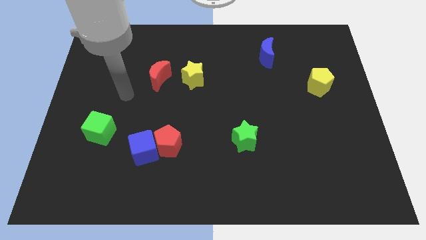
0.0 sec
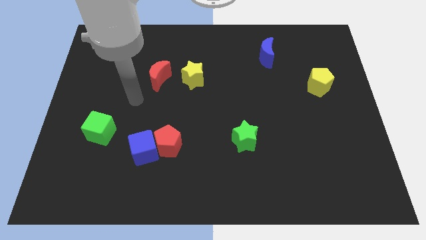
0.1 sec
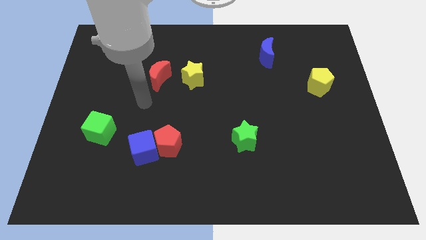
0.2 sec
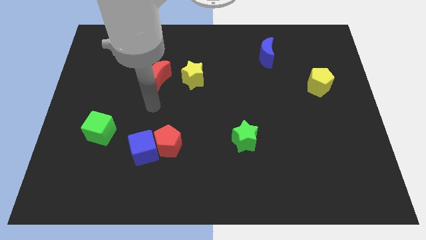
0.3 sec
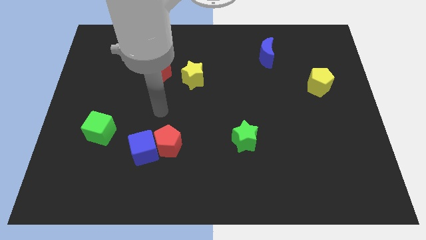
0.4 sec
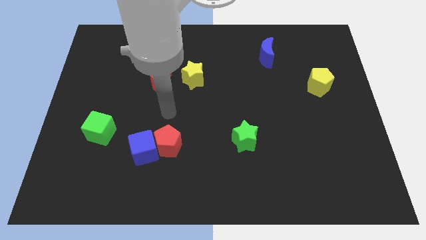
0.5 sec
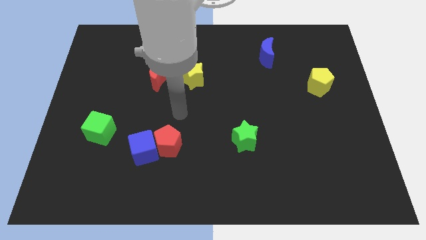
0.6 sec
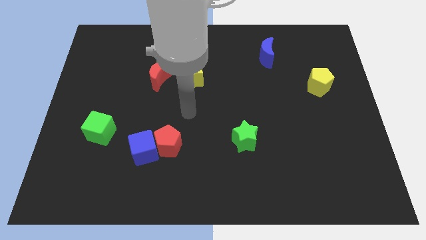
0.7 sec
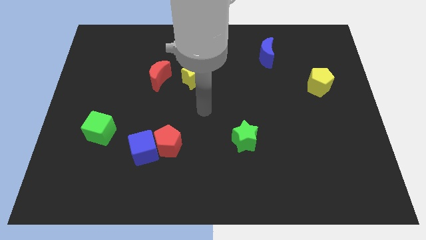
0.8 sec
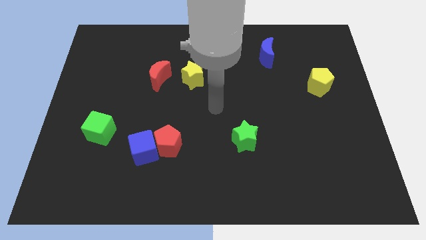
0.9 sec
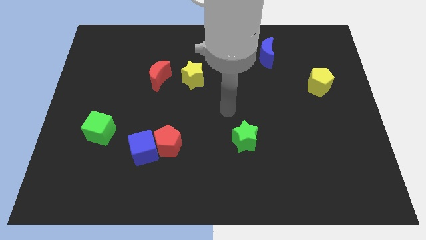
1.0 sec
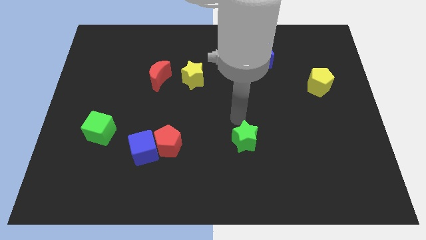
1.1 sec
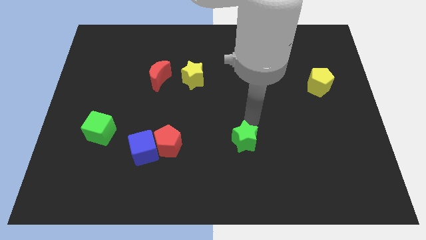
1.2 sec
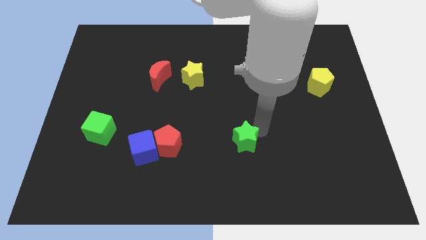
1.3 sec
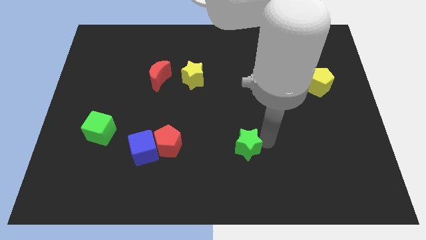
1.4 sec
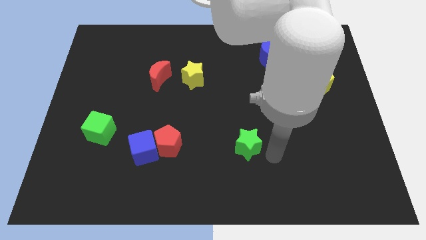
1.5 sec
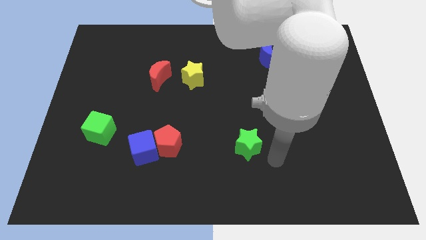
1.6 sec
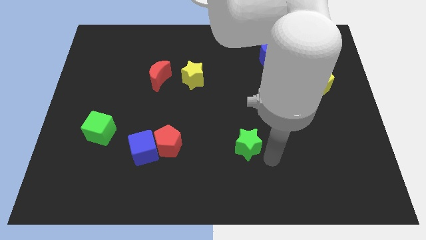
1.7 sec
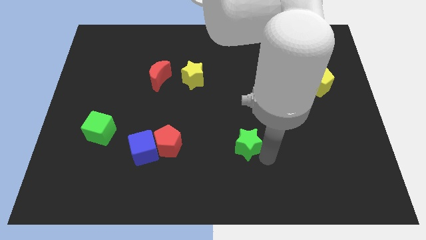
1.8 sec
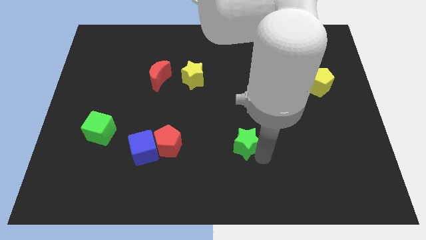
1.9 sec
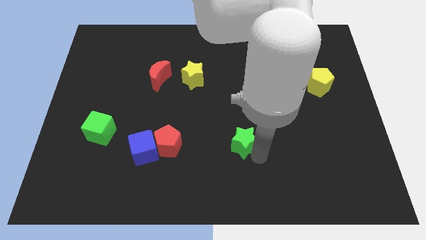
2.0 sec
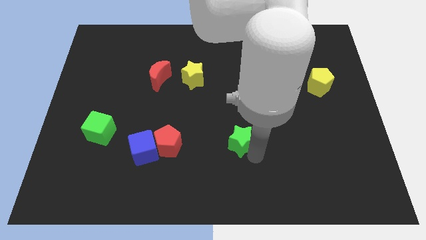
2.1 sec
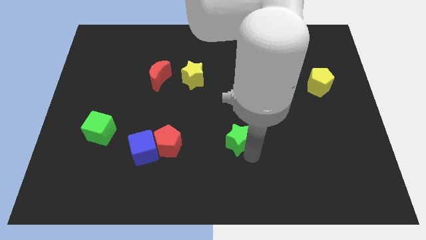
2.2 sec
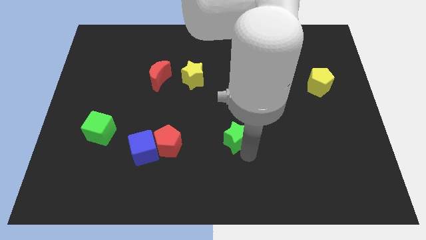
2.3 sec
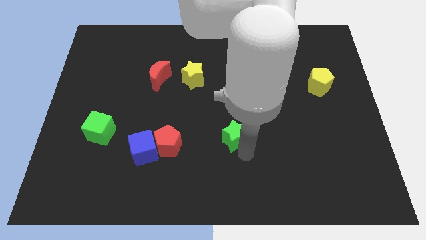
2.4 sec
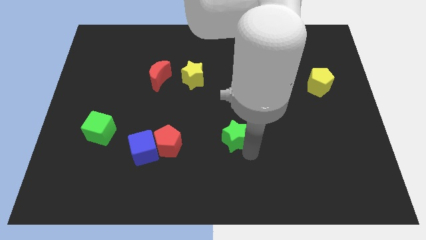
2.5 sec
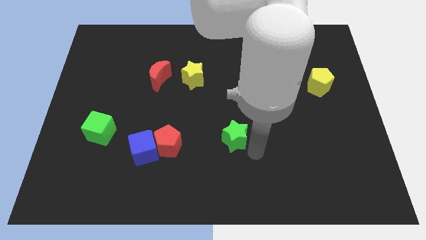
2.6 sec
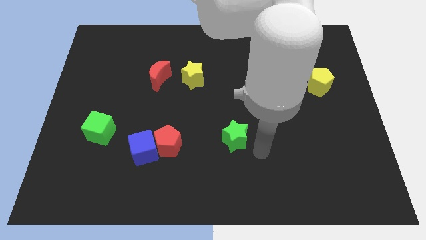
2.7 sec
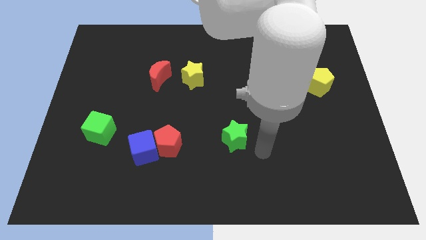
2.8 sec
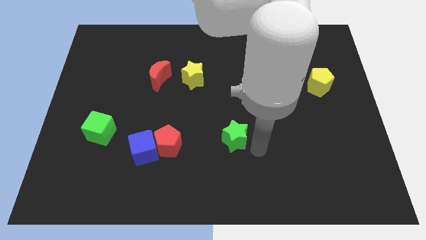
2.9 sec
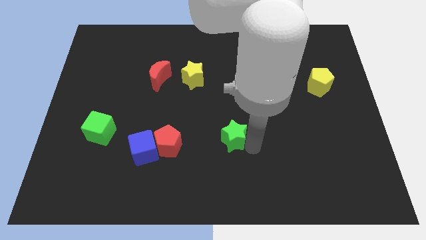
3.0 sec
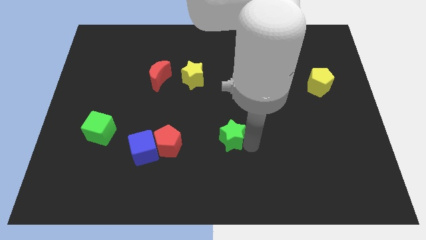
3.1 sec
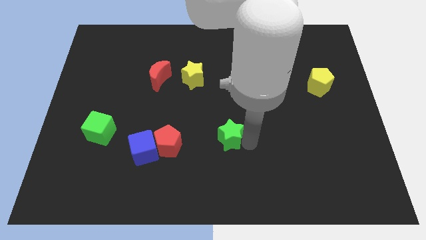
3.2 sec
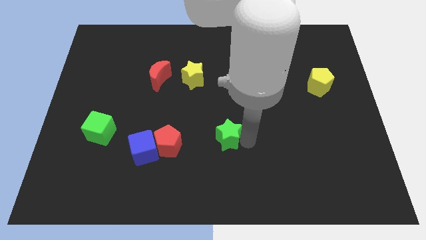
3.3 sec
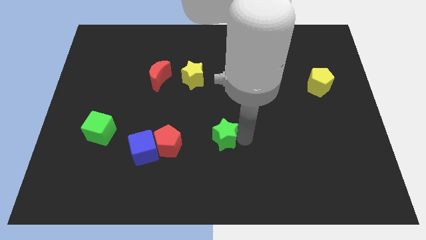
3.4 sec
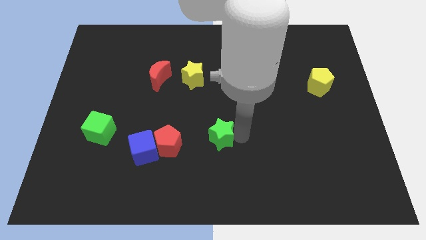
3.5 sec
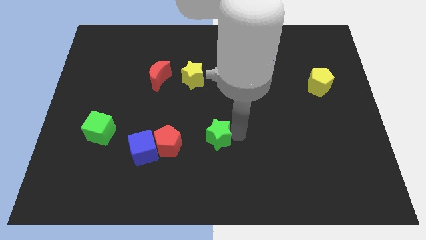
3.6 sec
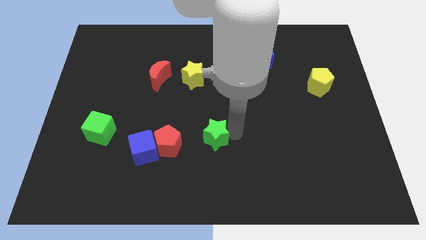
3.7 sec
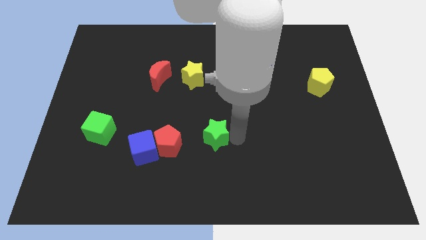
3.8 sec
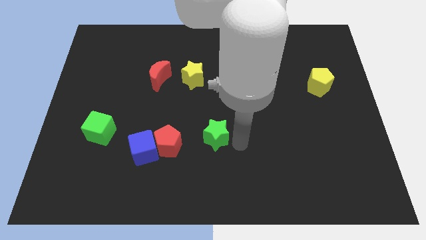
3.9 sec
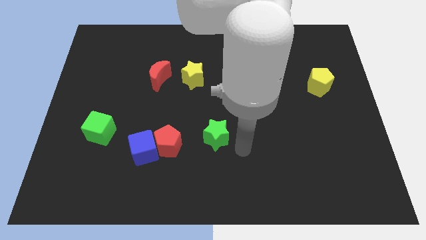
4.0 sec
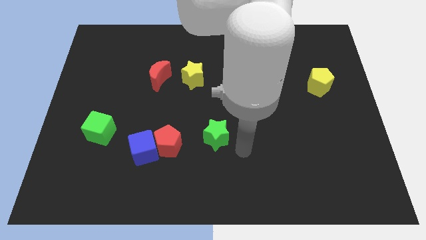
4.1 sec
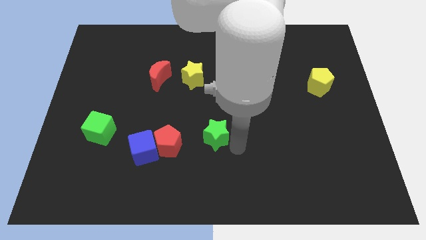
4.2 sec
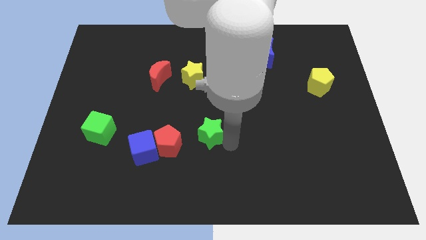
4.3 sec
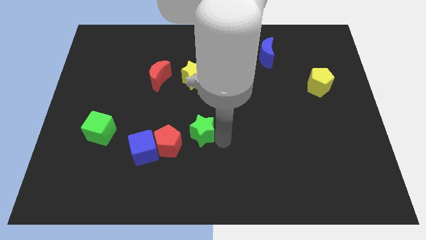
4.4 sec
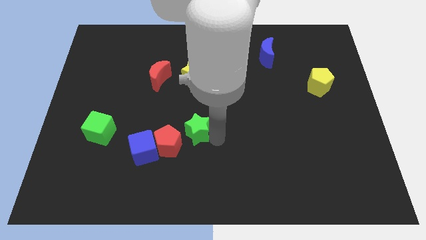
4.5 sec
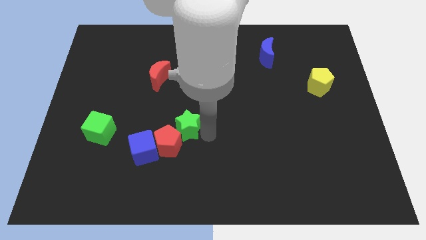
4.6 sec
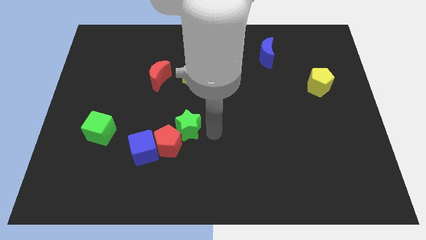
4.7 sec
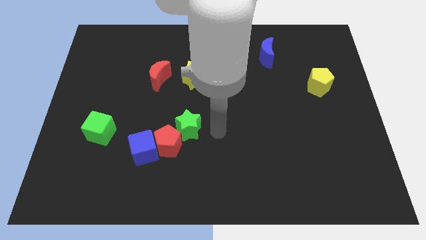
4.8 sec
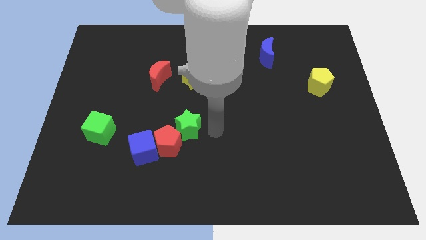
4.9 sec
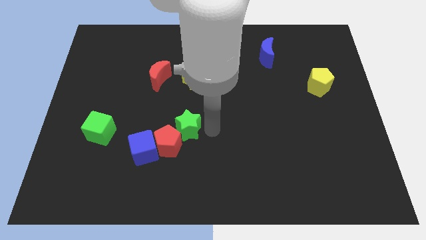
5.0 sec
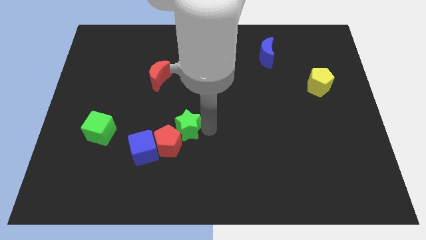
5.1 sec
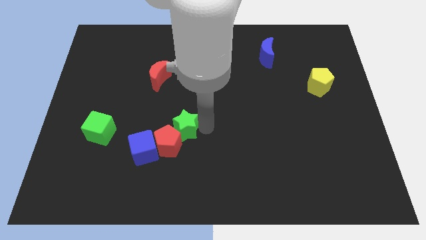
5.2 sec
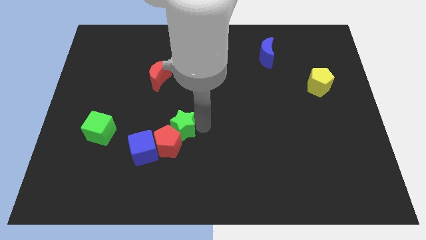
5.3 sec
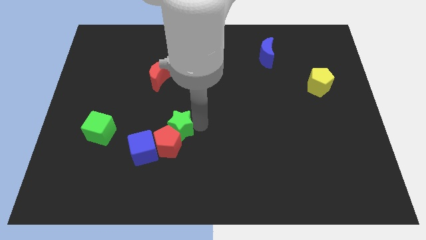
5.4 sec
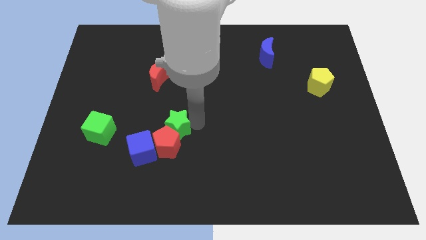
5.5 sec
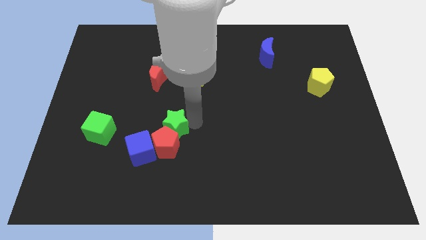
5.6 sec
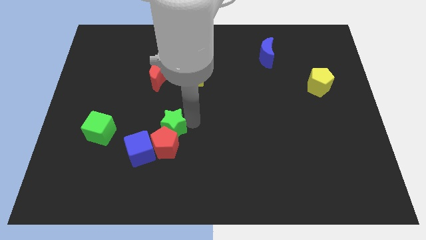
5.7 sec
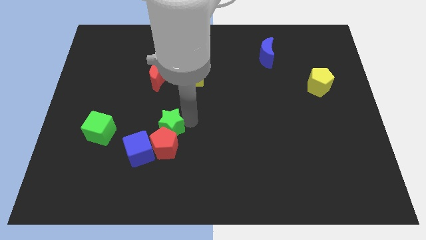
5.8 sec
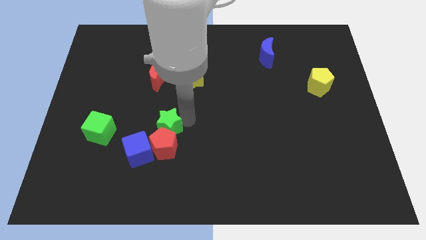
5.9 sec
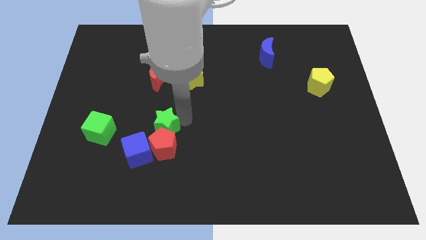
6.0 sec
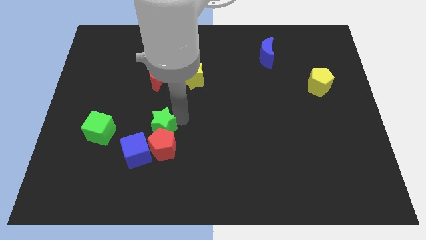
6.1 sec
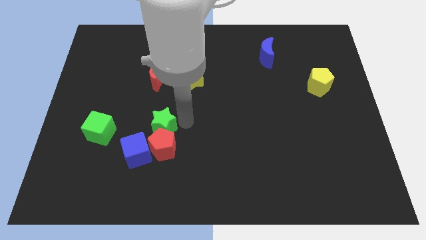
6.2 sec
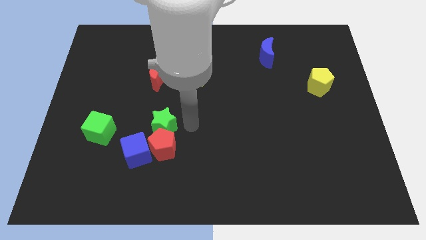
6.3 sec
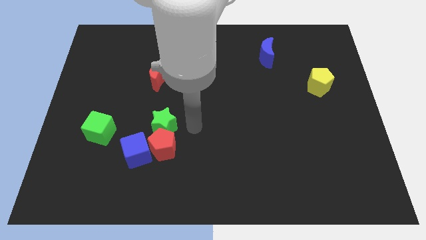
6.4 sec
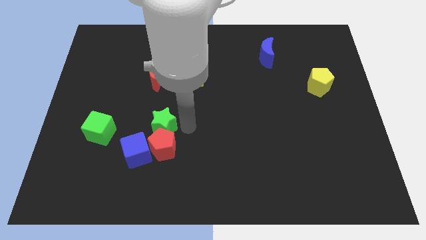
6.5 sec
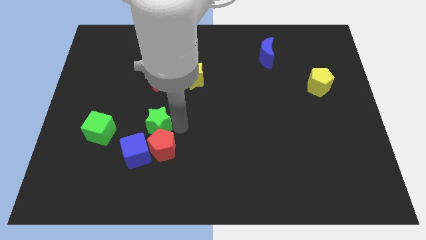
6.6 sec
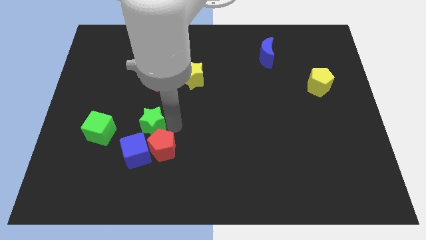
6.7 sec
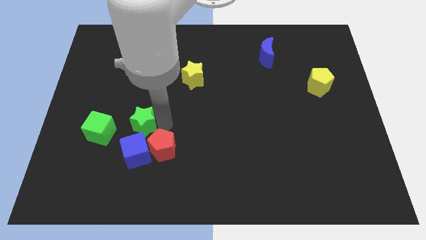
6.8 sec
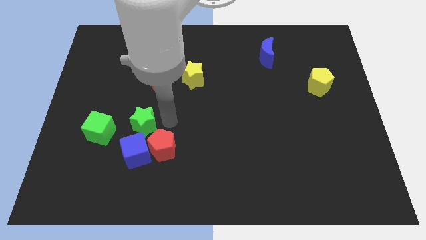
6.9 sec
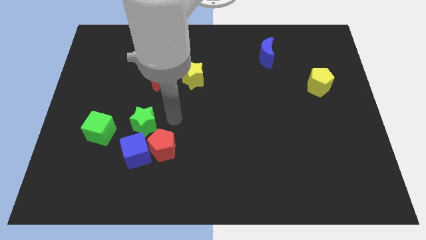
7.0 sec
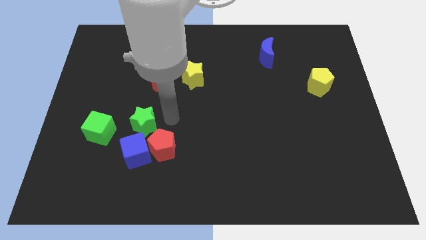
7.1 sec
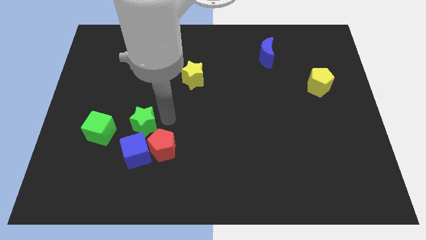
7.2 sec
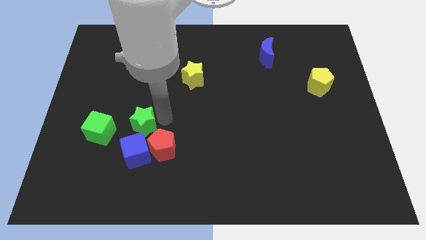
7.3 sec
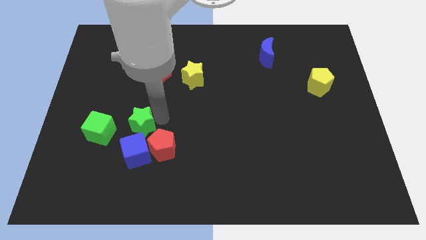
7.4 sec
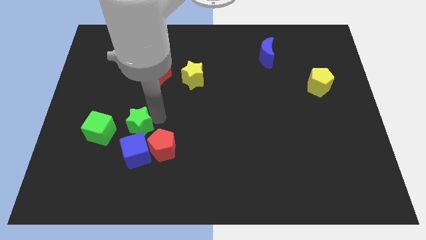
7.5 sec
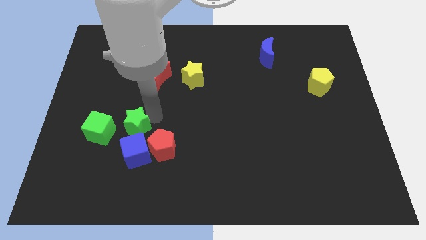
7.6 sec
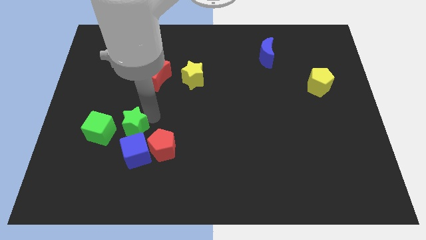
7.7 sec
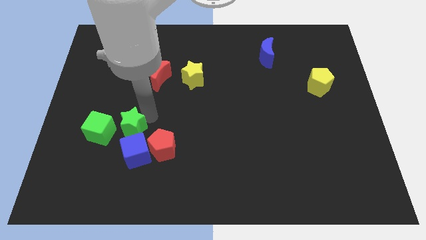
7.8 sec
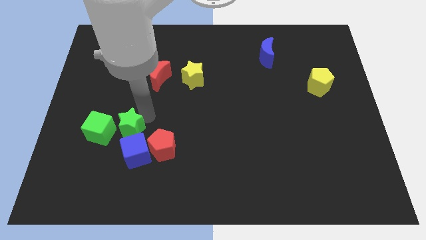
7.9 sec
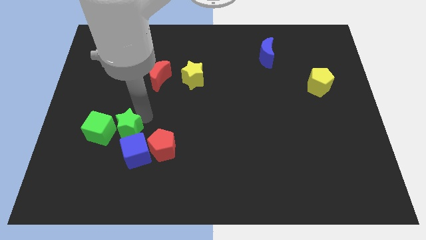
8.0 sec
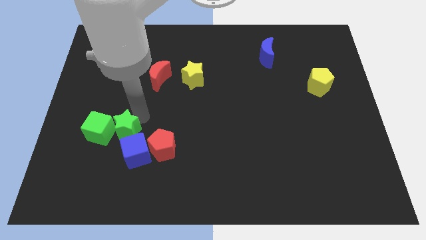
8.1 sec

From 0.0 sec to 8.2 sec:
slide the green star next to the green cube
